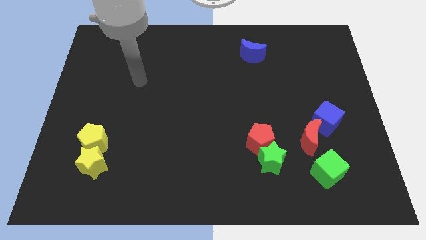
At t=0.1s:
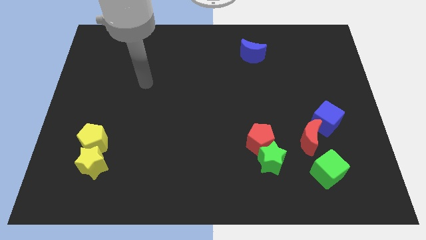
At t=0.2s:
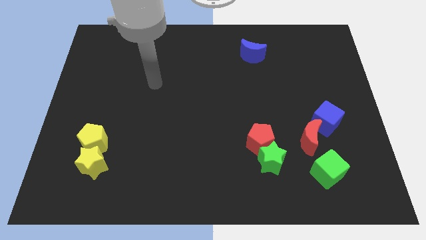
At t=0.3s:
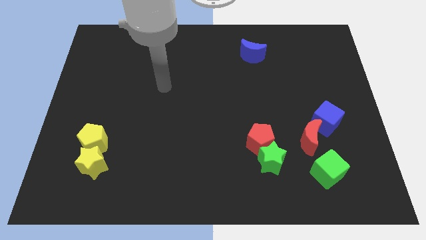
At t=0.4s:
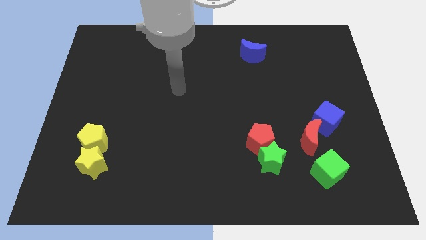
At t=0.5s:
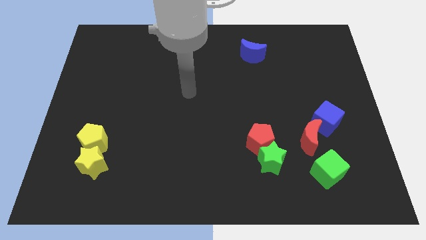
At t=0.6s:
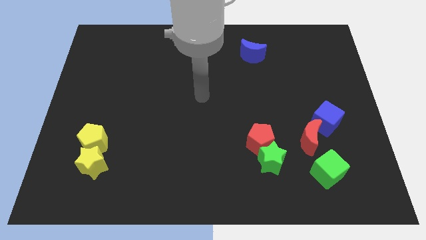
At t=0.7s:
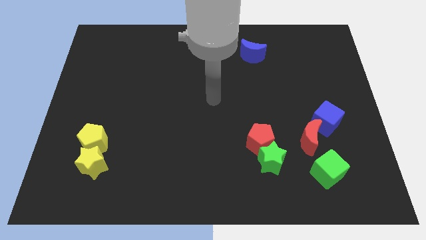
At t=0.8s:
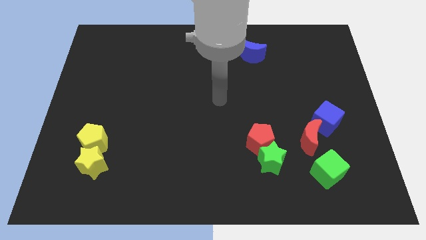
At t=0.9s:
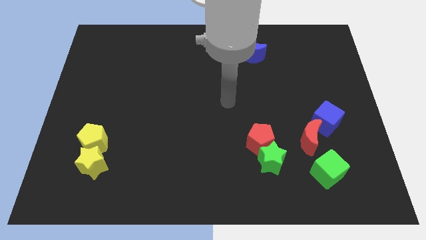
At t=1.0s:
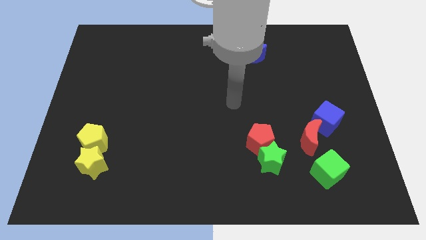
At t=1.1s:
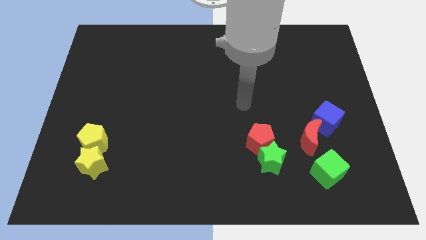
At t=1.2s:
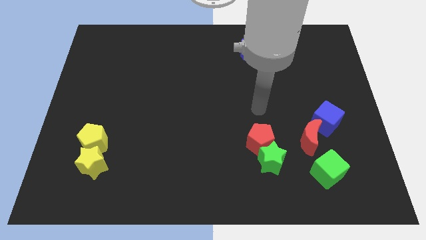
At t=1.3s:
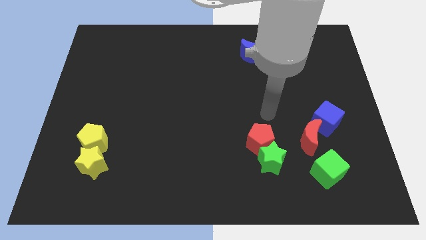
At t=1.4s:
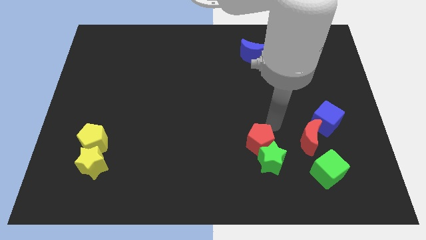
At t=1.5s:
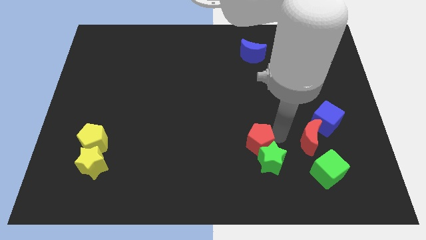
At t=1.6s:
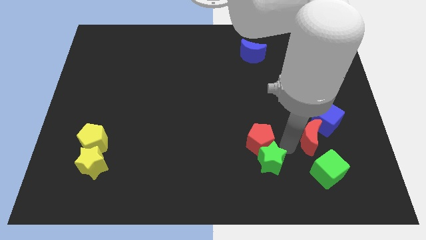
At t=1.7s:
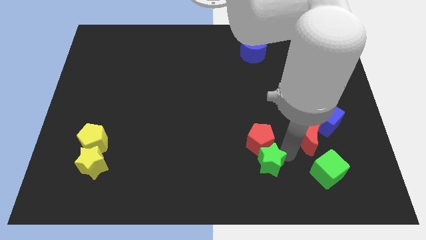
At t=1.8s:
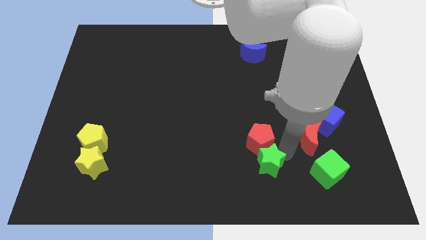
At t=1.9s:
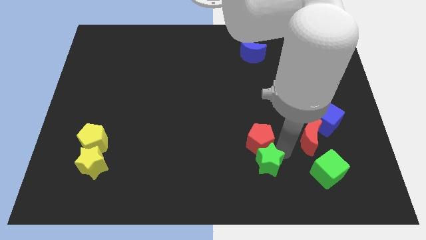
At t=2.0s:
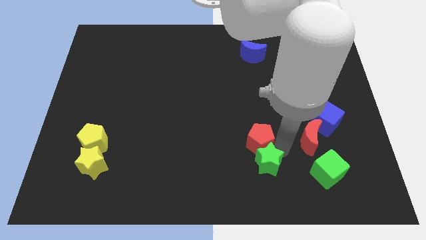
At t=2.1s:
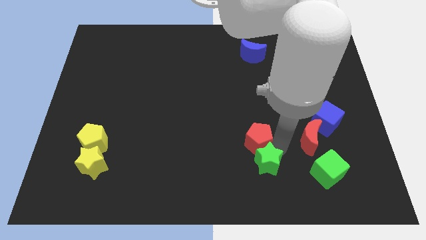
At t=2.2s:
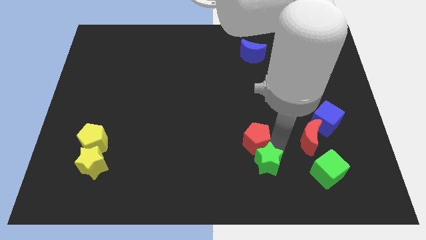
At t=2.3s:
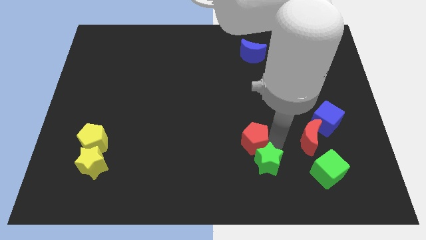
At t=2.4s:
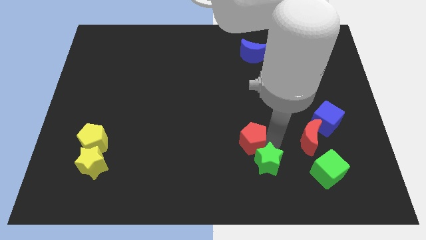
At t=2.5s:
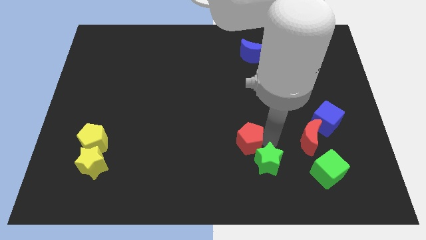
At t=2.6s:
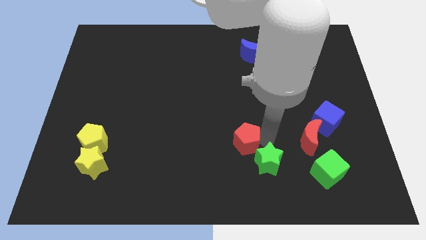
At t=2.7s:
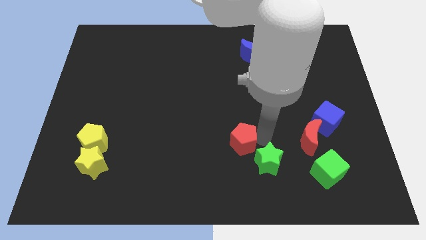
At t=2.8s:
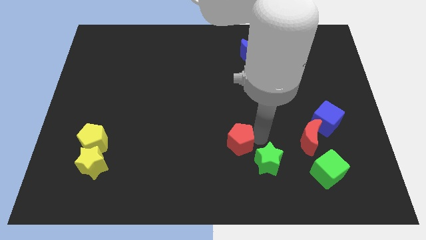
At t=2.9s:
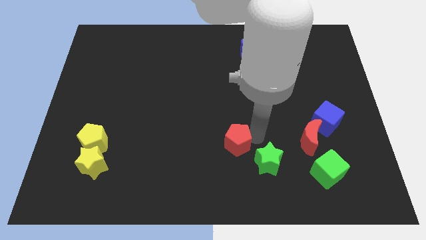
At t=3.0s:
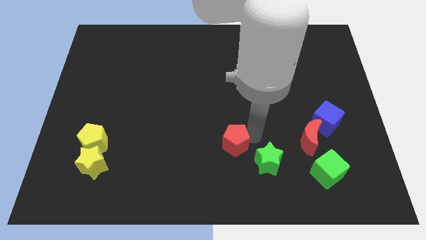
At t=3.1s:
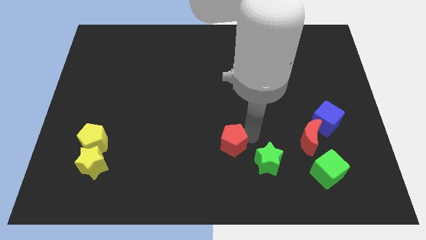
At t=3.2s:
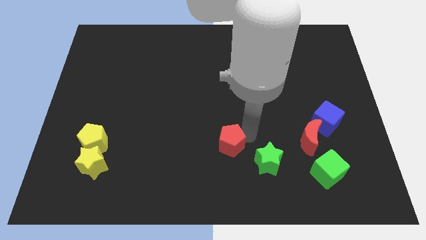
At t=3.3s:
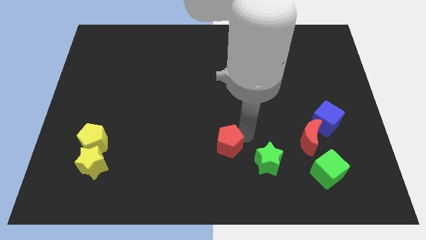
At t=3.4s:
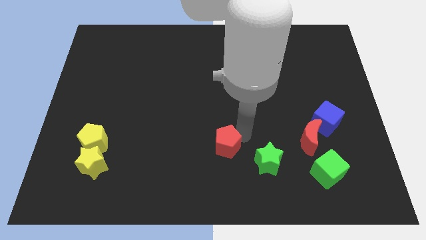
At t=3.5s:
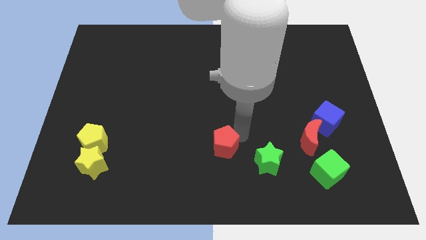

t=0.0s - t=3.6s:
move the red pentagon away from the green star

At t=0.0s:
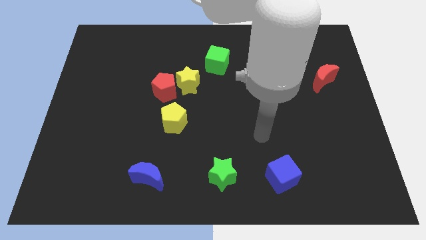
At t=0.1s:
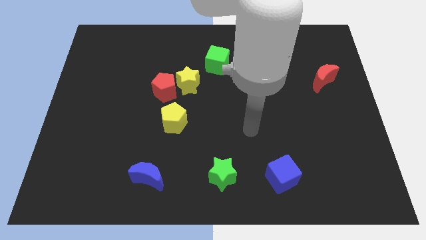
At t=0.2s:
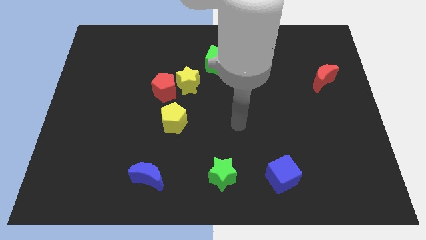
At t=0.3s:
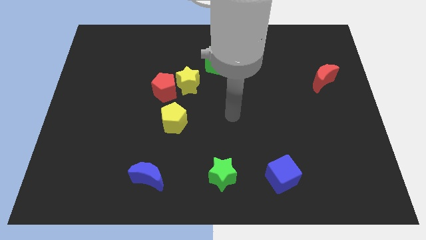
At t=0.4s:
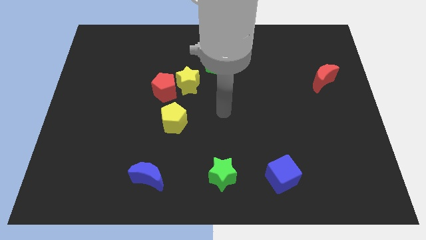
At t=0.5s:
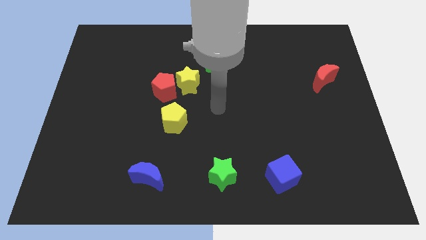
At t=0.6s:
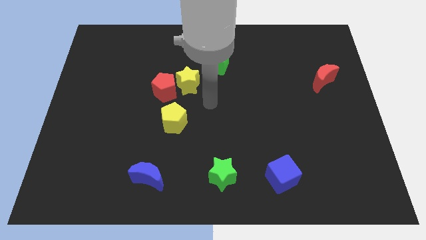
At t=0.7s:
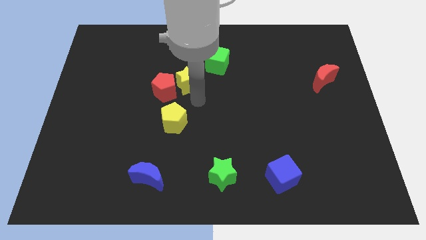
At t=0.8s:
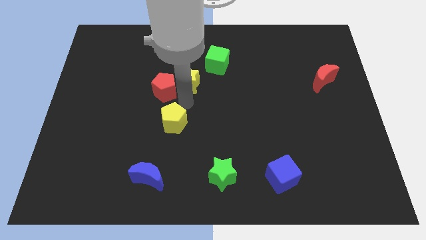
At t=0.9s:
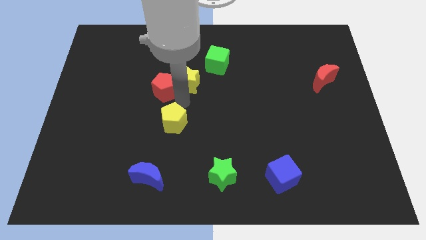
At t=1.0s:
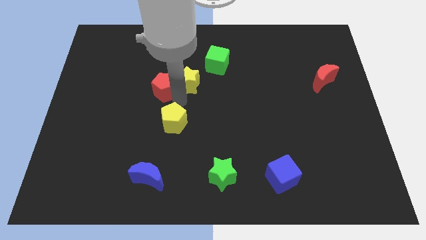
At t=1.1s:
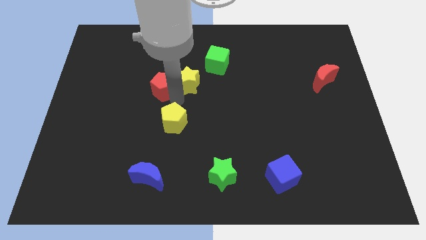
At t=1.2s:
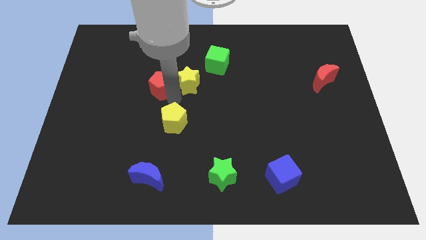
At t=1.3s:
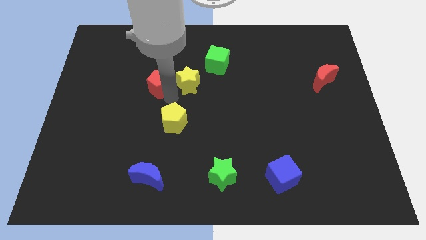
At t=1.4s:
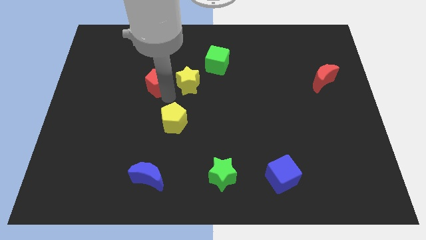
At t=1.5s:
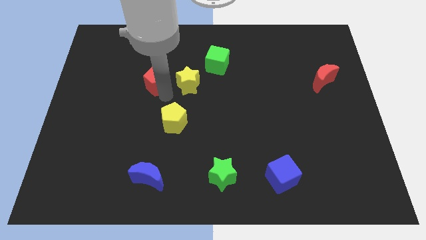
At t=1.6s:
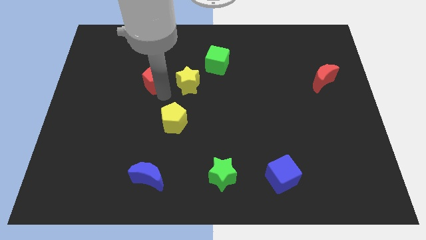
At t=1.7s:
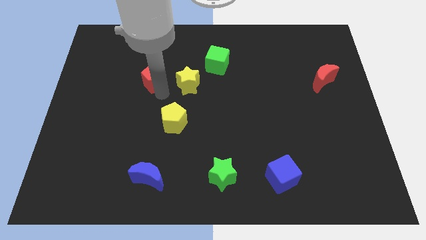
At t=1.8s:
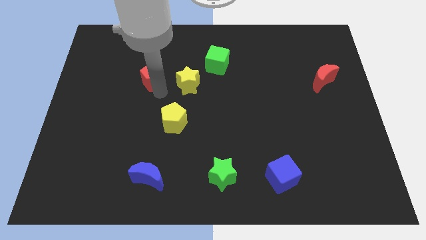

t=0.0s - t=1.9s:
pull the red pentagon apart from the yellow star and yellow pentagon

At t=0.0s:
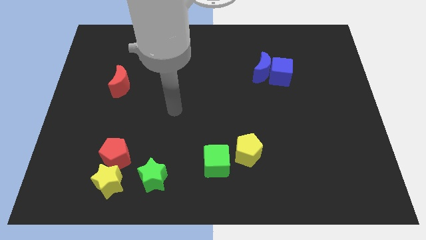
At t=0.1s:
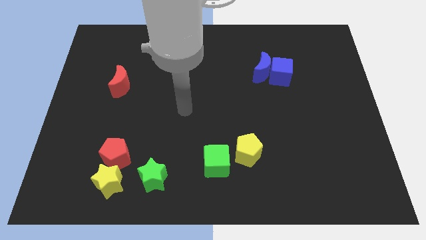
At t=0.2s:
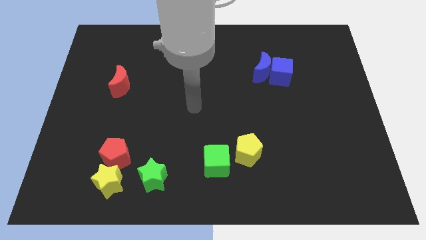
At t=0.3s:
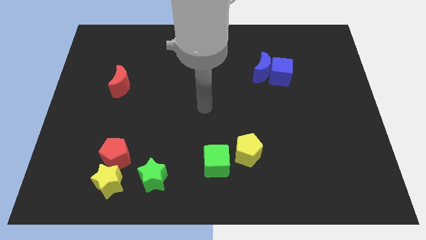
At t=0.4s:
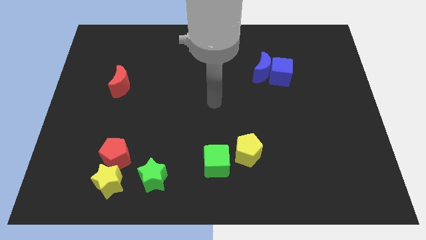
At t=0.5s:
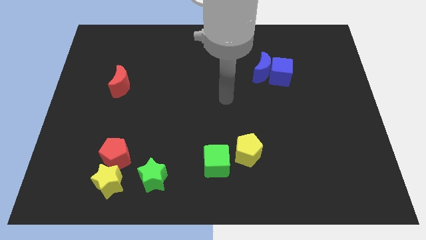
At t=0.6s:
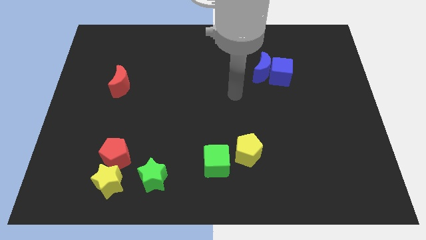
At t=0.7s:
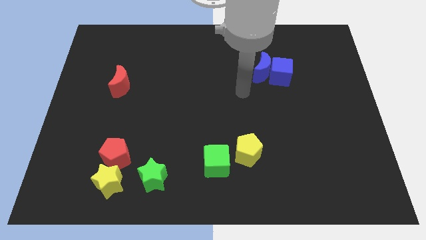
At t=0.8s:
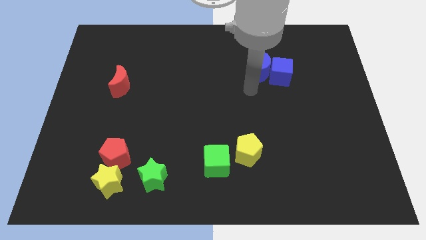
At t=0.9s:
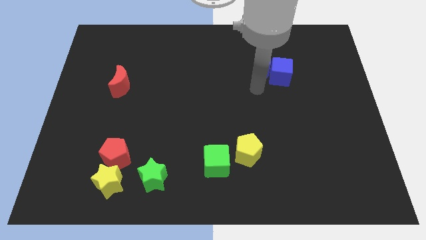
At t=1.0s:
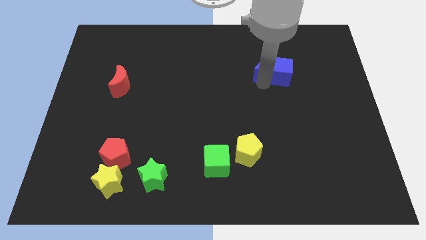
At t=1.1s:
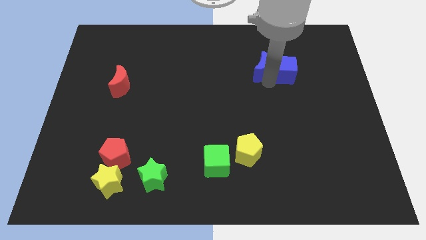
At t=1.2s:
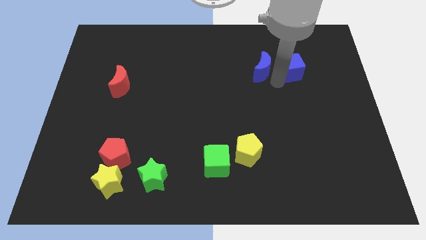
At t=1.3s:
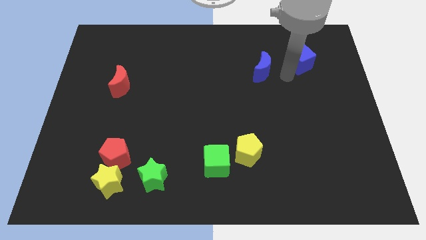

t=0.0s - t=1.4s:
separate the blue moon from the blue cube

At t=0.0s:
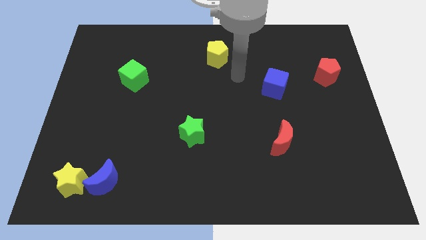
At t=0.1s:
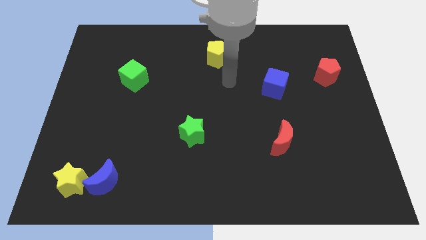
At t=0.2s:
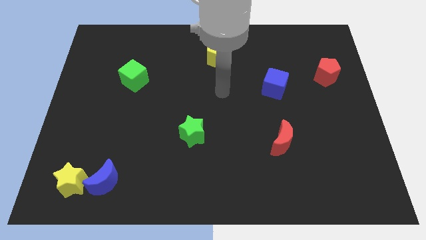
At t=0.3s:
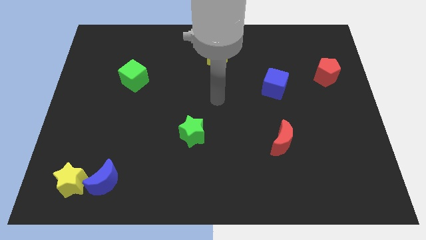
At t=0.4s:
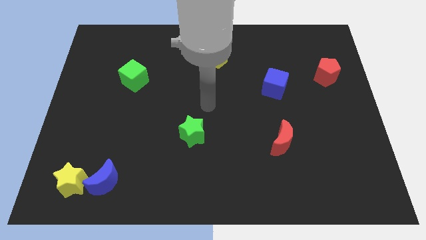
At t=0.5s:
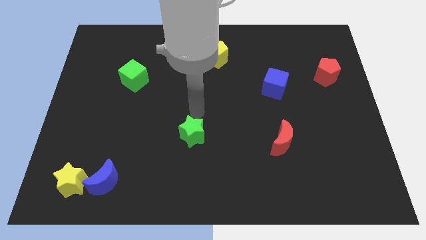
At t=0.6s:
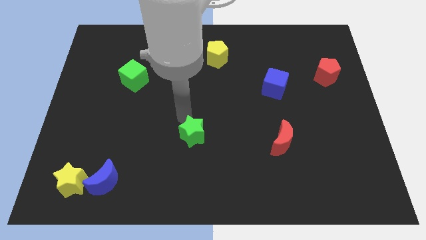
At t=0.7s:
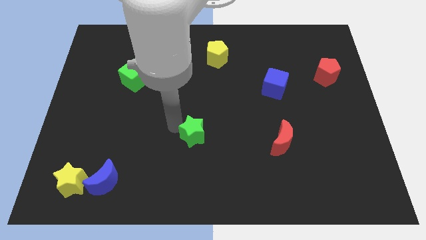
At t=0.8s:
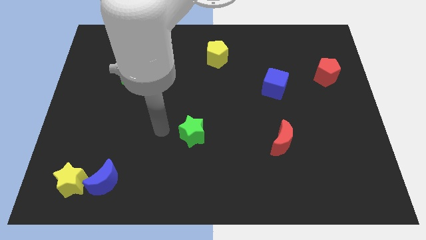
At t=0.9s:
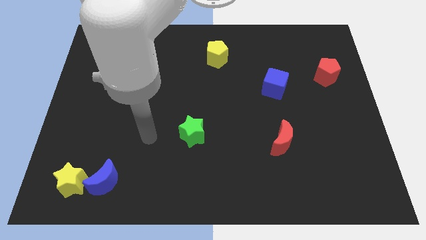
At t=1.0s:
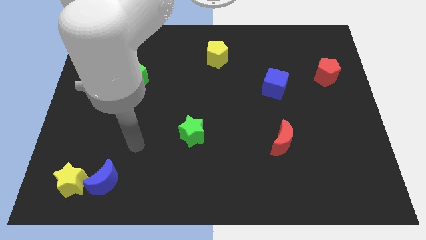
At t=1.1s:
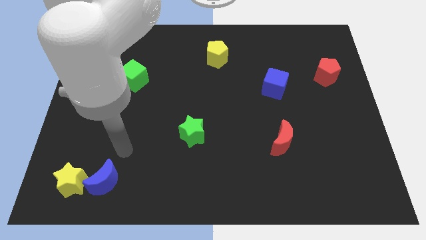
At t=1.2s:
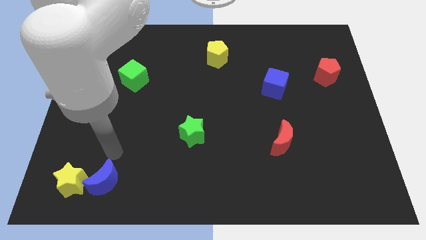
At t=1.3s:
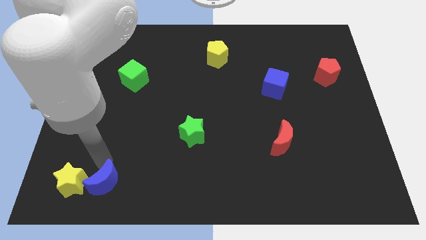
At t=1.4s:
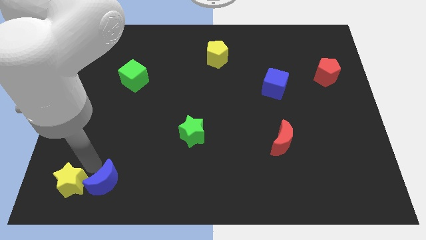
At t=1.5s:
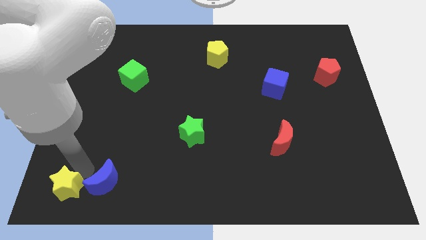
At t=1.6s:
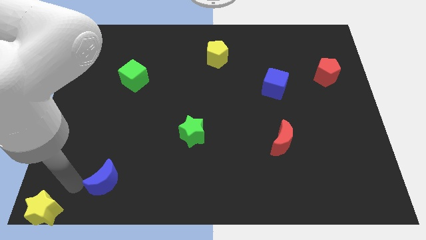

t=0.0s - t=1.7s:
pull the blue moon apart from the yellow star

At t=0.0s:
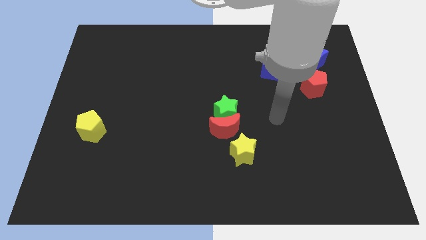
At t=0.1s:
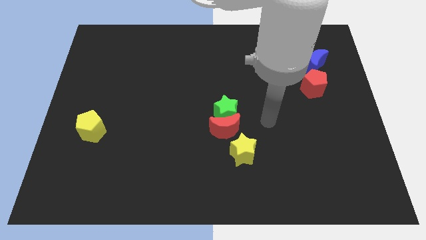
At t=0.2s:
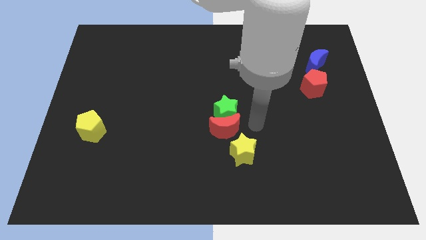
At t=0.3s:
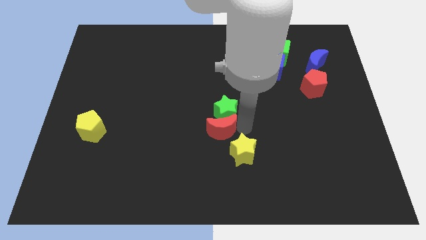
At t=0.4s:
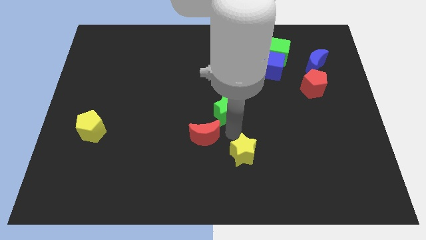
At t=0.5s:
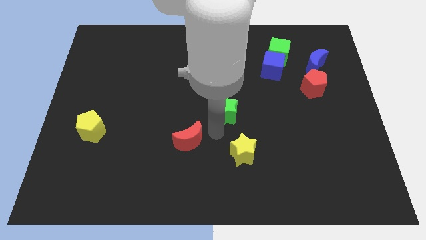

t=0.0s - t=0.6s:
move the green star away from the red moon
